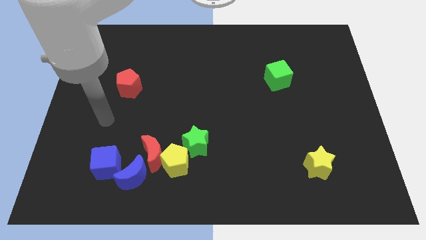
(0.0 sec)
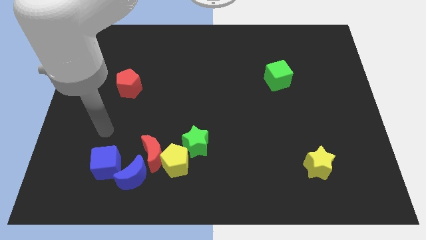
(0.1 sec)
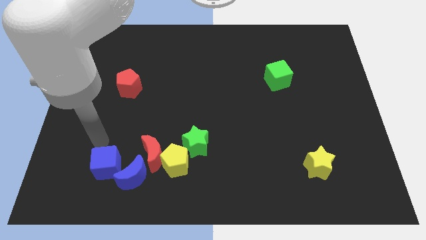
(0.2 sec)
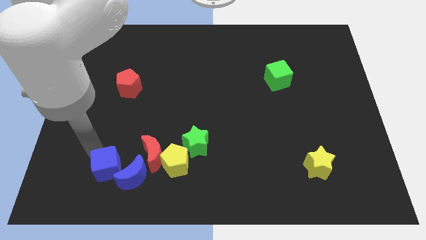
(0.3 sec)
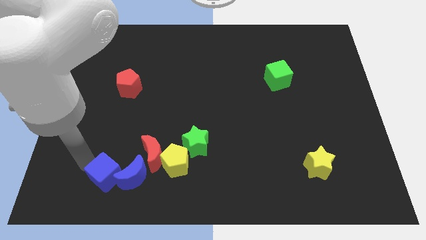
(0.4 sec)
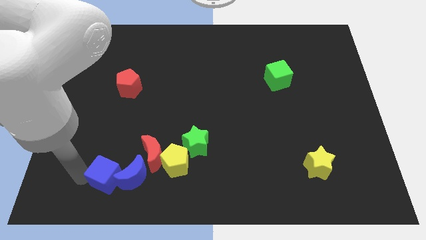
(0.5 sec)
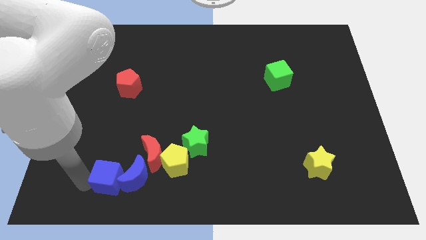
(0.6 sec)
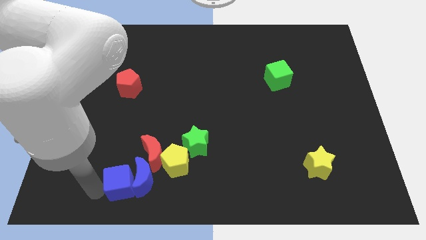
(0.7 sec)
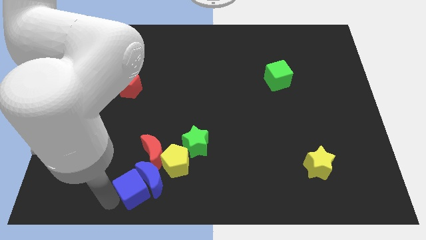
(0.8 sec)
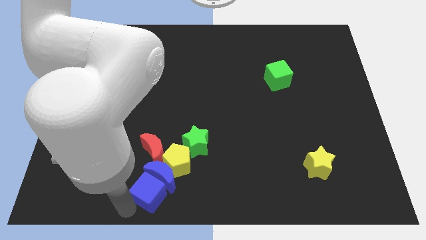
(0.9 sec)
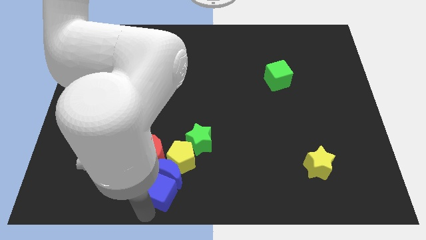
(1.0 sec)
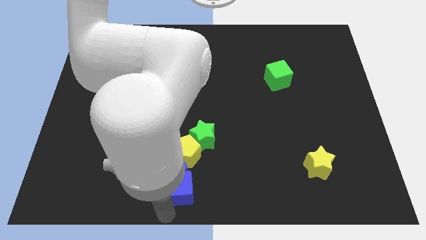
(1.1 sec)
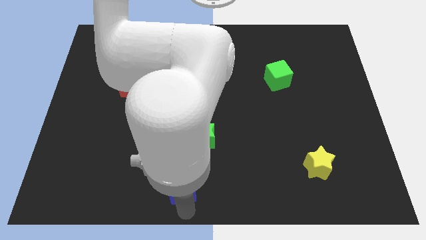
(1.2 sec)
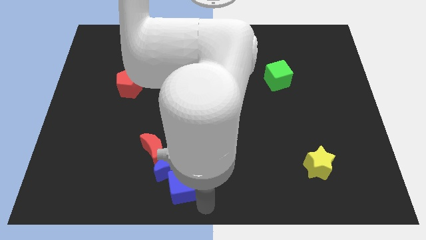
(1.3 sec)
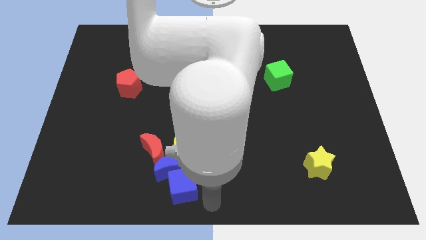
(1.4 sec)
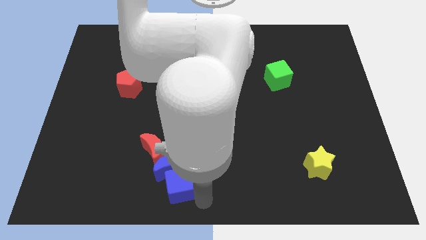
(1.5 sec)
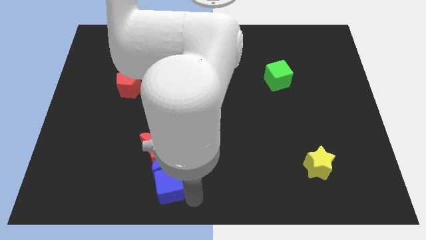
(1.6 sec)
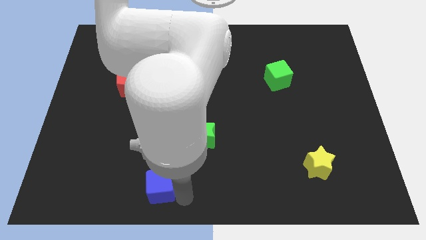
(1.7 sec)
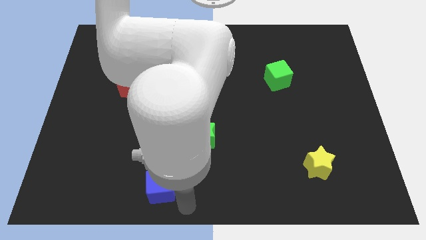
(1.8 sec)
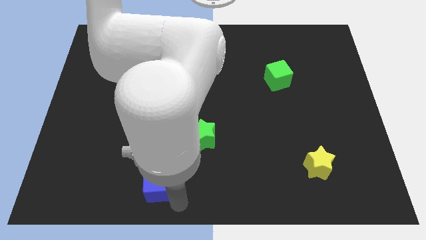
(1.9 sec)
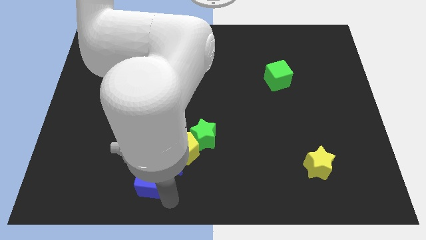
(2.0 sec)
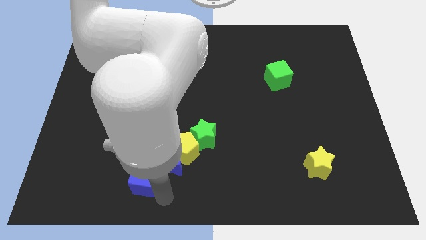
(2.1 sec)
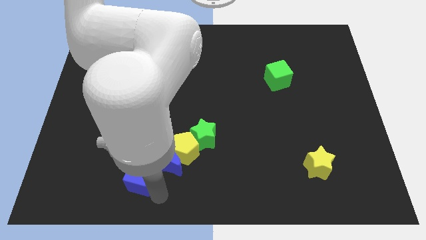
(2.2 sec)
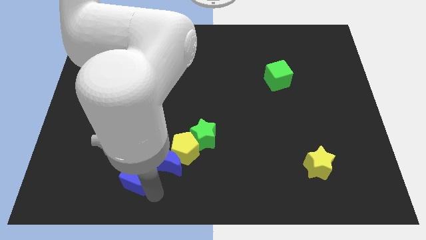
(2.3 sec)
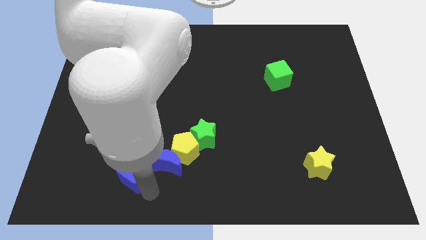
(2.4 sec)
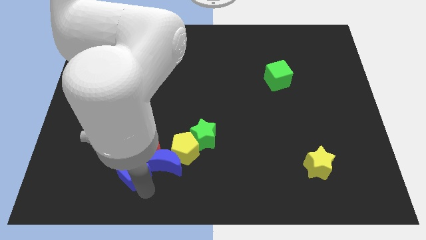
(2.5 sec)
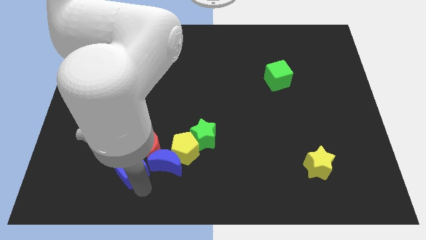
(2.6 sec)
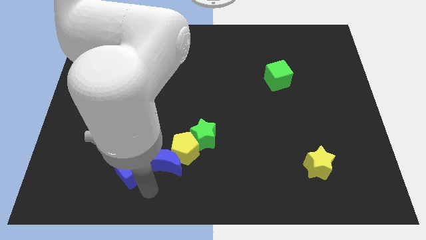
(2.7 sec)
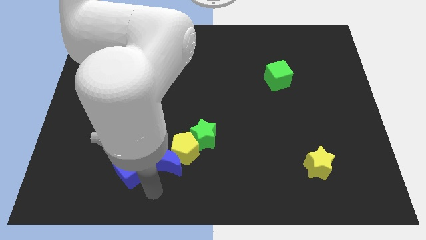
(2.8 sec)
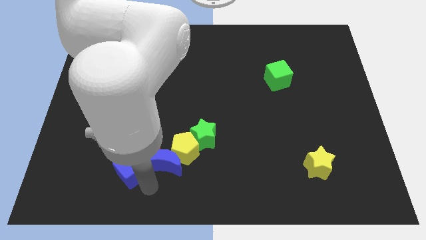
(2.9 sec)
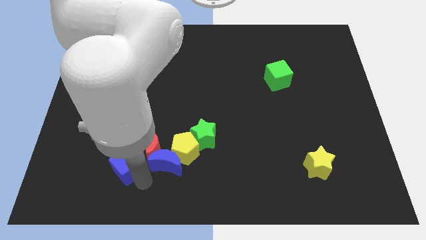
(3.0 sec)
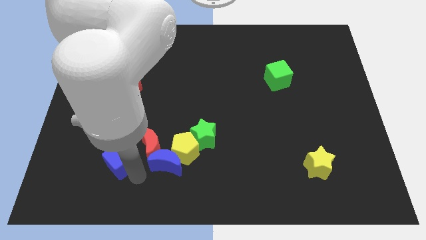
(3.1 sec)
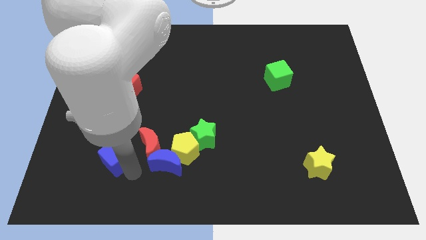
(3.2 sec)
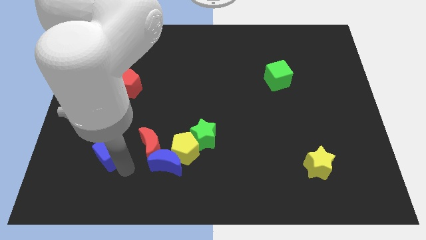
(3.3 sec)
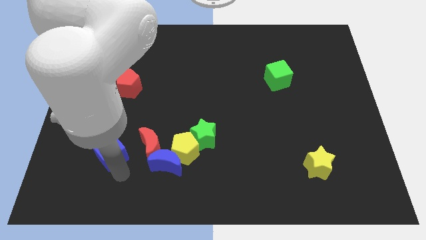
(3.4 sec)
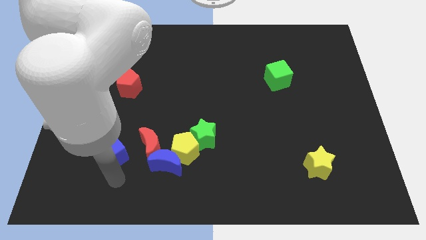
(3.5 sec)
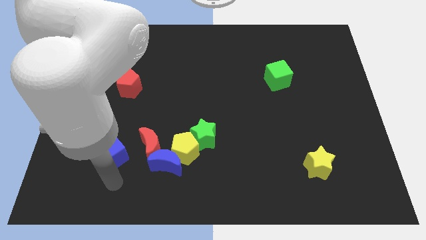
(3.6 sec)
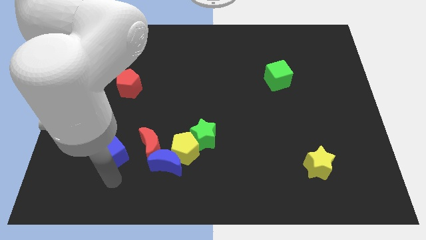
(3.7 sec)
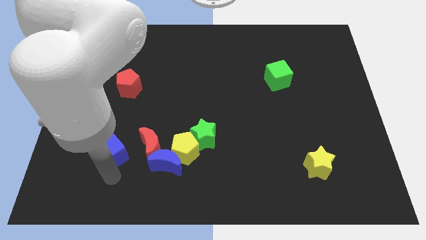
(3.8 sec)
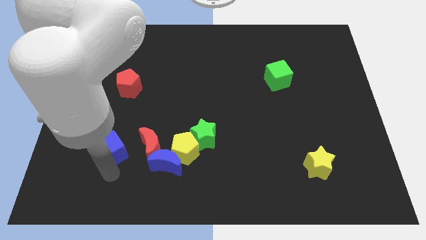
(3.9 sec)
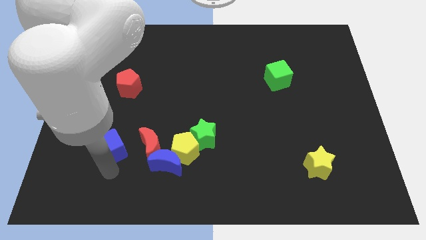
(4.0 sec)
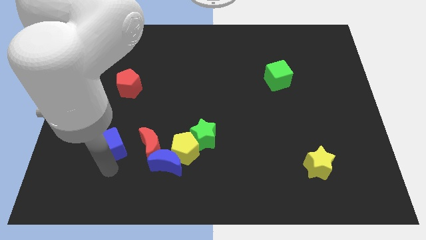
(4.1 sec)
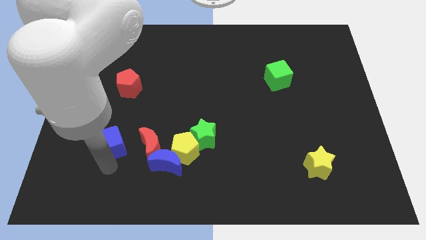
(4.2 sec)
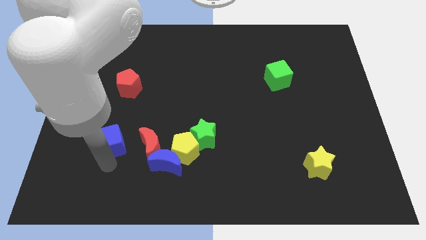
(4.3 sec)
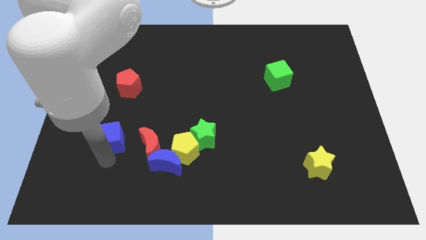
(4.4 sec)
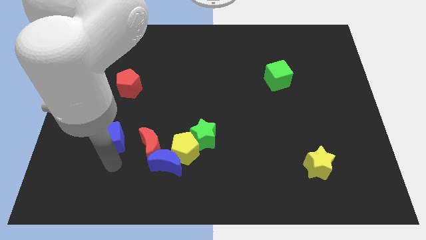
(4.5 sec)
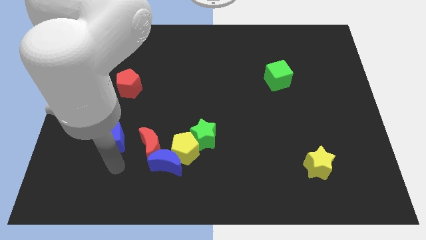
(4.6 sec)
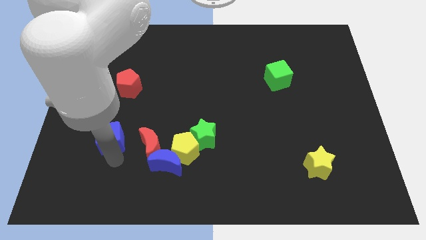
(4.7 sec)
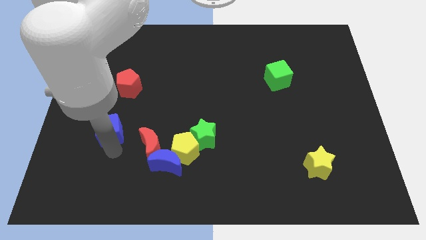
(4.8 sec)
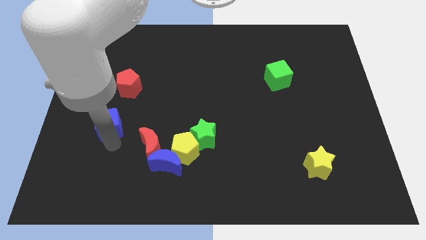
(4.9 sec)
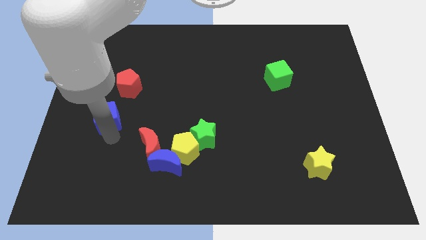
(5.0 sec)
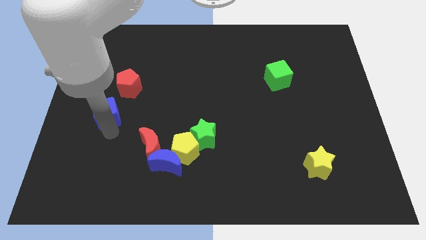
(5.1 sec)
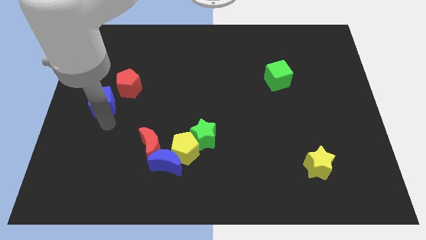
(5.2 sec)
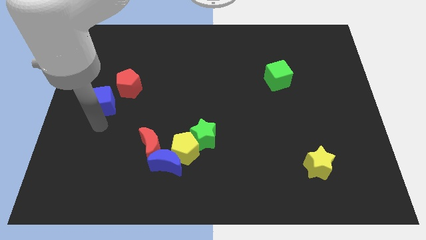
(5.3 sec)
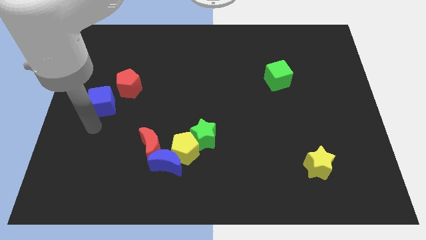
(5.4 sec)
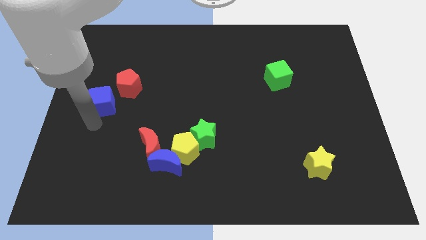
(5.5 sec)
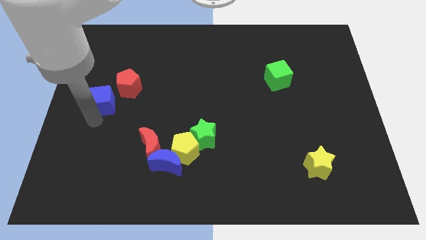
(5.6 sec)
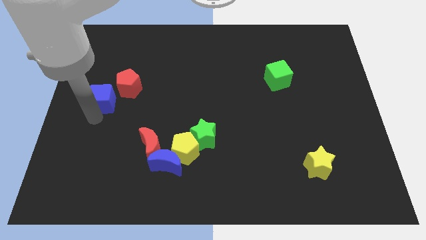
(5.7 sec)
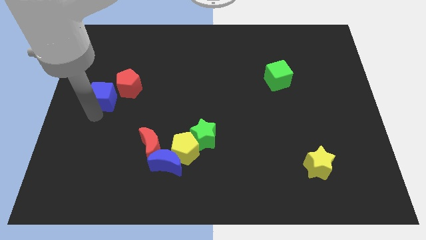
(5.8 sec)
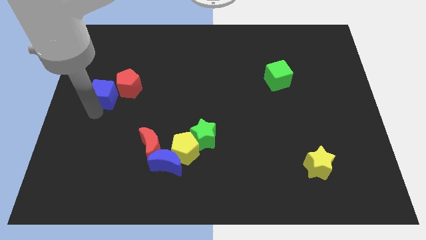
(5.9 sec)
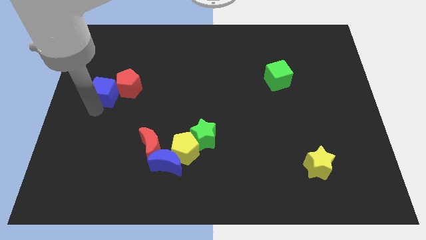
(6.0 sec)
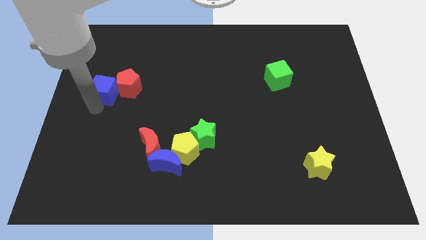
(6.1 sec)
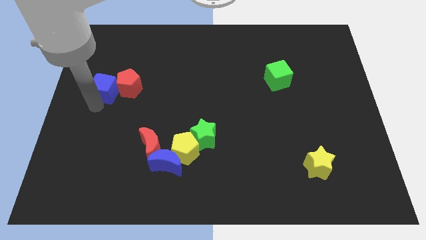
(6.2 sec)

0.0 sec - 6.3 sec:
move the blue cube upwards

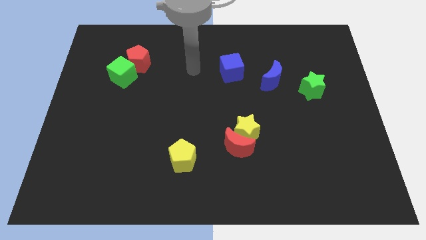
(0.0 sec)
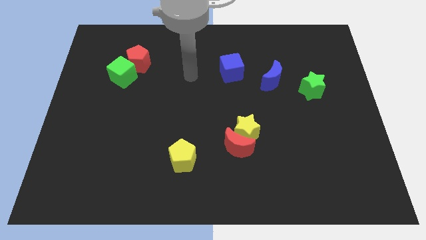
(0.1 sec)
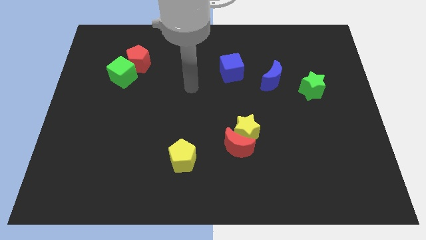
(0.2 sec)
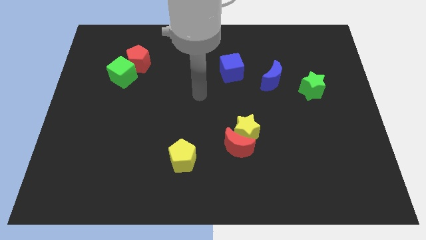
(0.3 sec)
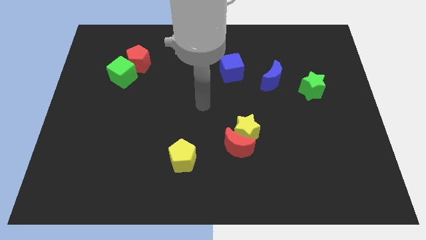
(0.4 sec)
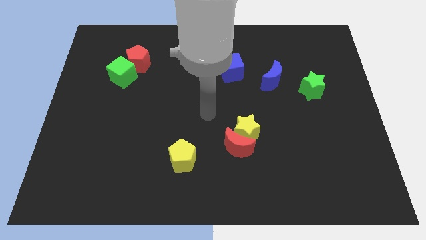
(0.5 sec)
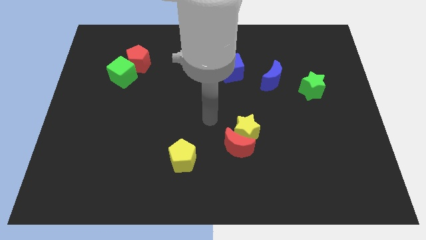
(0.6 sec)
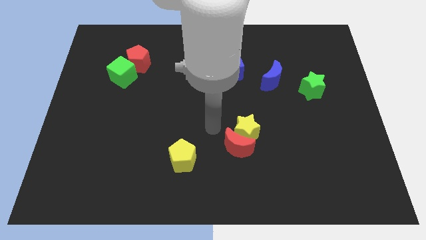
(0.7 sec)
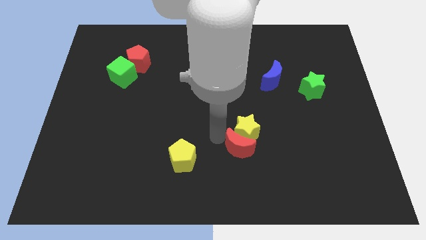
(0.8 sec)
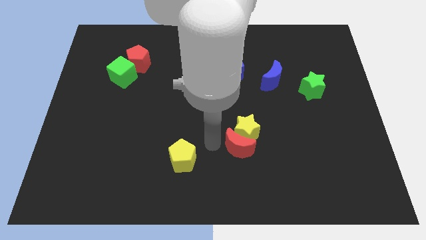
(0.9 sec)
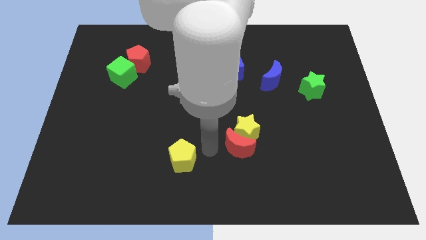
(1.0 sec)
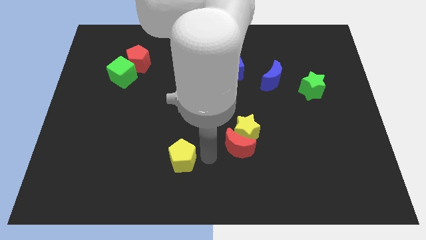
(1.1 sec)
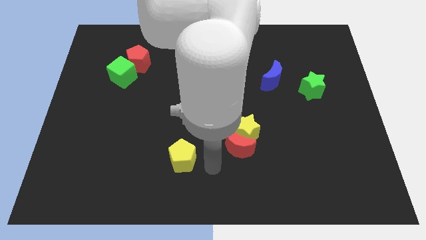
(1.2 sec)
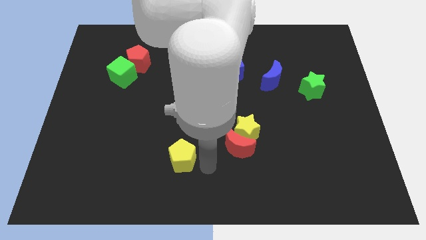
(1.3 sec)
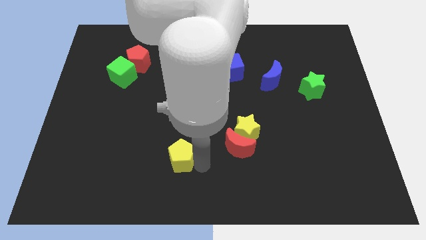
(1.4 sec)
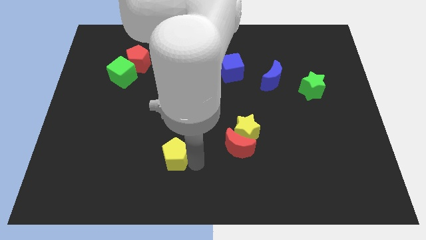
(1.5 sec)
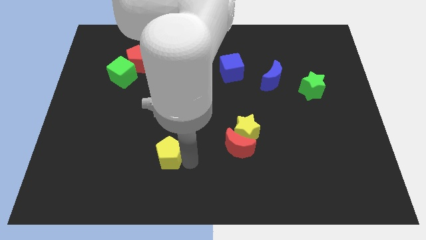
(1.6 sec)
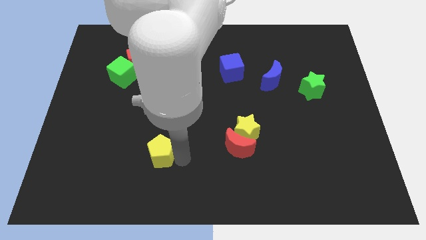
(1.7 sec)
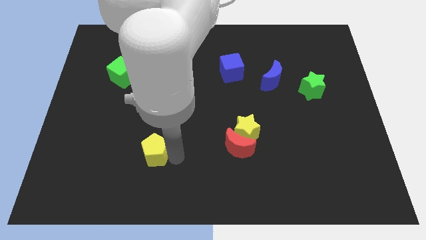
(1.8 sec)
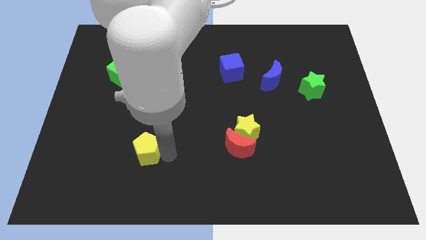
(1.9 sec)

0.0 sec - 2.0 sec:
slightly slide the yellow pentagon to the left
